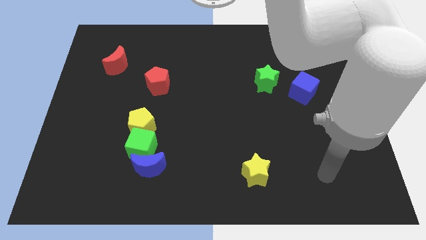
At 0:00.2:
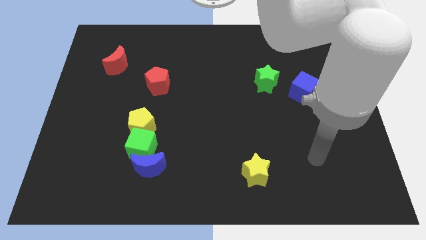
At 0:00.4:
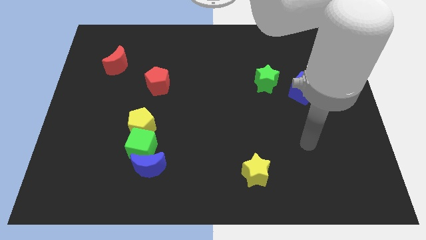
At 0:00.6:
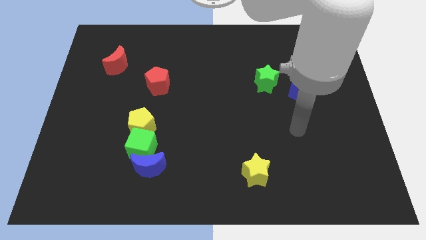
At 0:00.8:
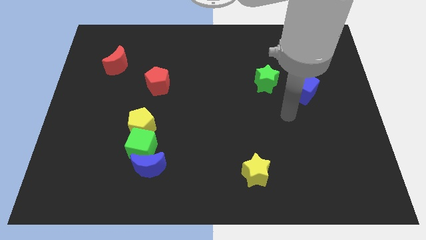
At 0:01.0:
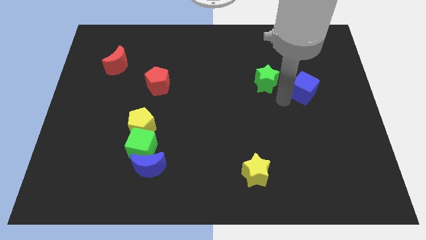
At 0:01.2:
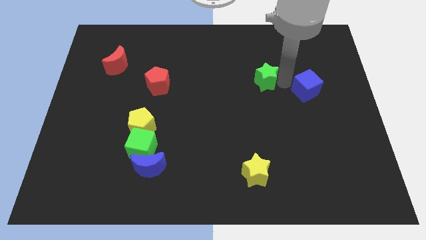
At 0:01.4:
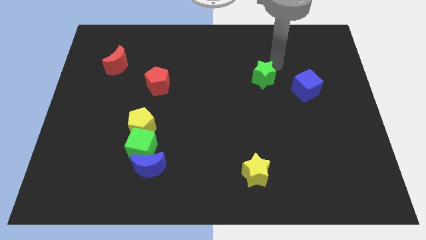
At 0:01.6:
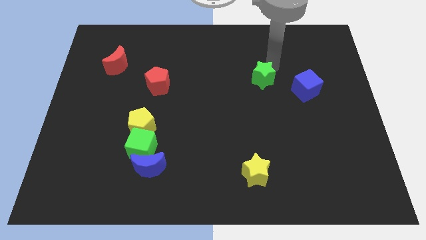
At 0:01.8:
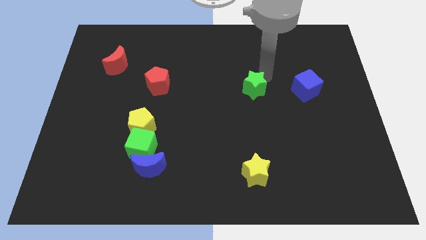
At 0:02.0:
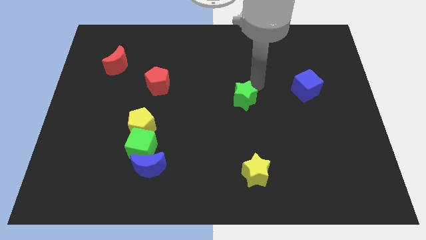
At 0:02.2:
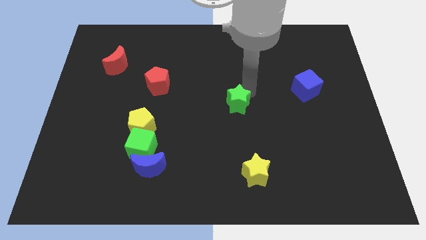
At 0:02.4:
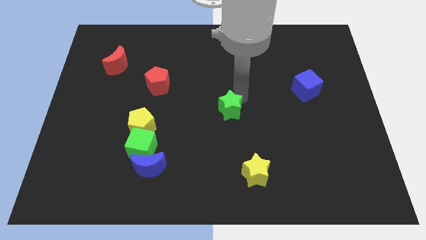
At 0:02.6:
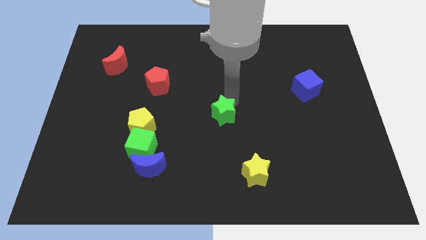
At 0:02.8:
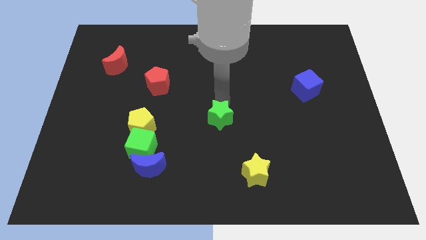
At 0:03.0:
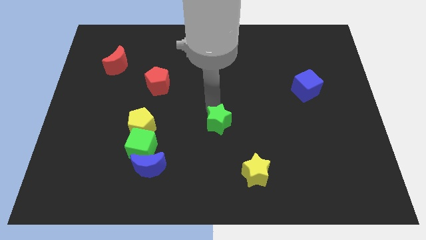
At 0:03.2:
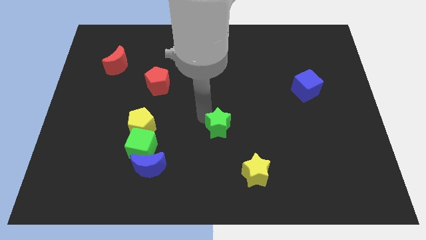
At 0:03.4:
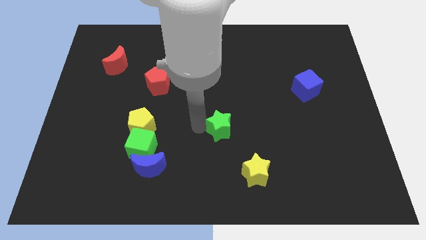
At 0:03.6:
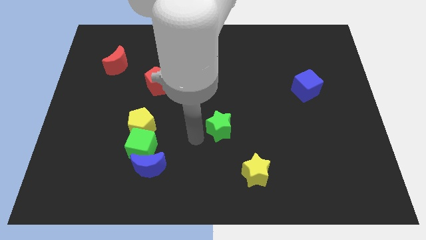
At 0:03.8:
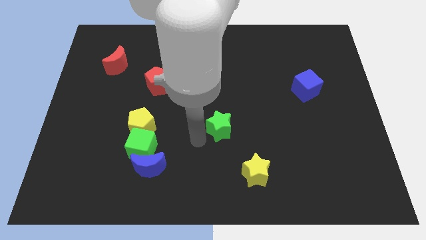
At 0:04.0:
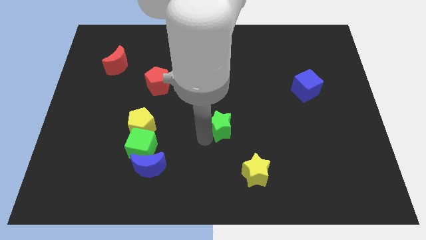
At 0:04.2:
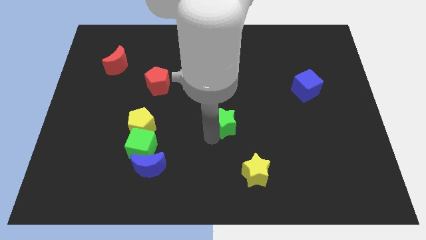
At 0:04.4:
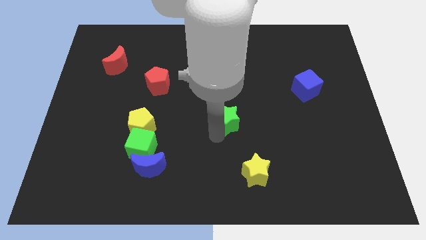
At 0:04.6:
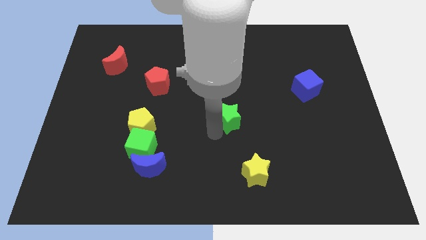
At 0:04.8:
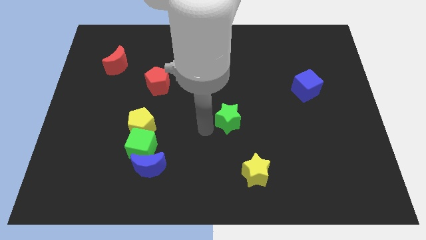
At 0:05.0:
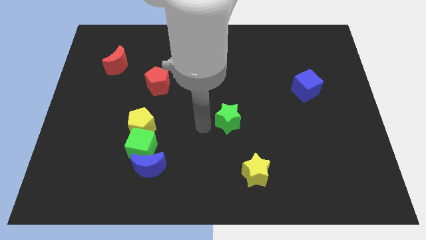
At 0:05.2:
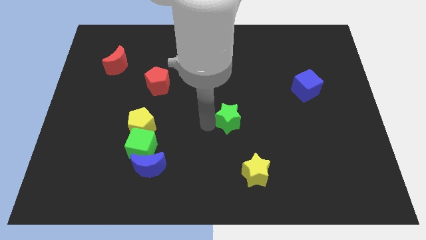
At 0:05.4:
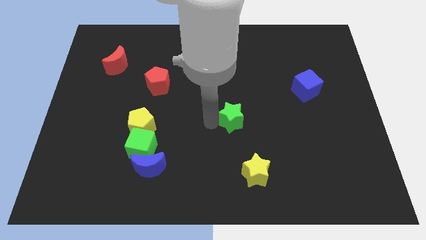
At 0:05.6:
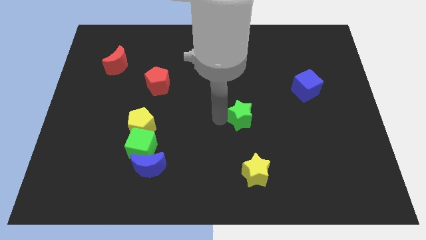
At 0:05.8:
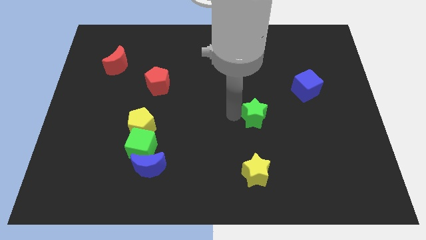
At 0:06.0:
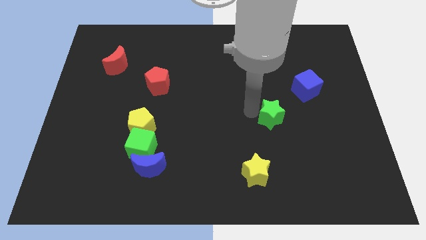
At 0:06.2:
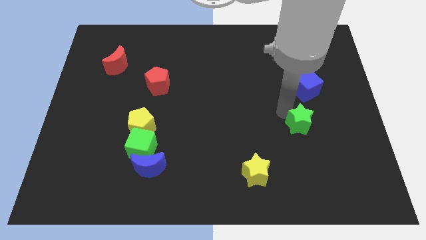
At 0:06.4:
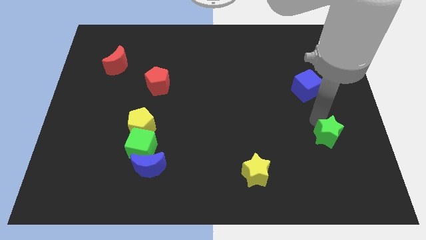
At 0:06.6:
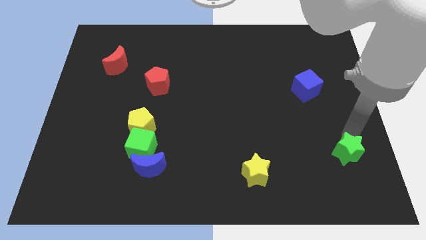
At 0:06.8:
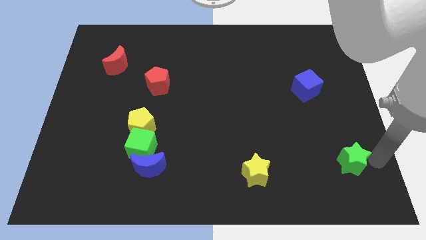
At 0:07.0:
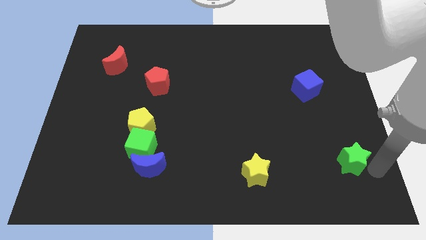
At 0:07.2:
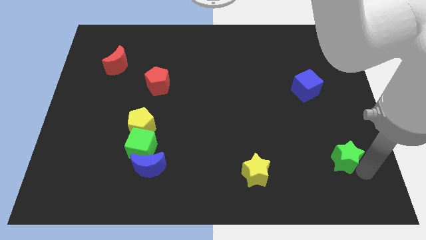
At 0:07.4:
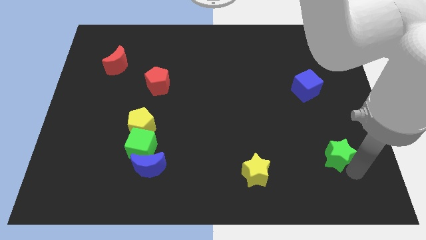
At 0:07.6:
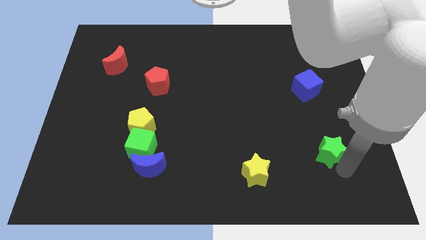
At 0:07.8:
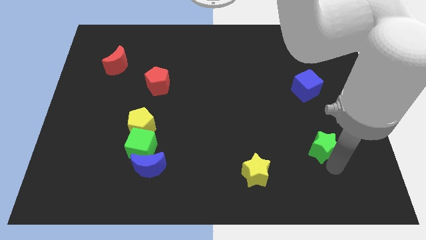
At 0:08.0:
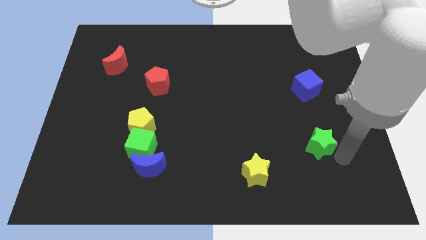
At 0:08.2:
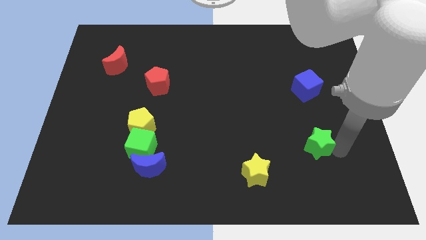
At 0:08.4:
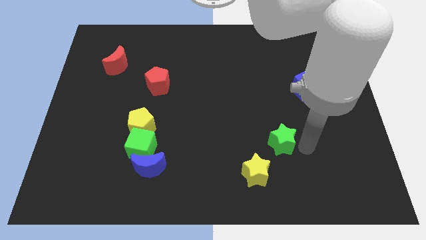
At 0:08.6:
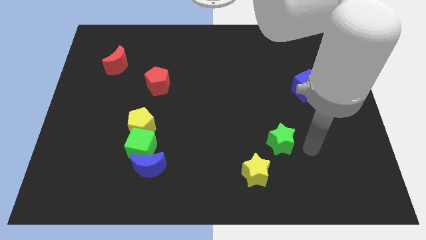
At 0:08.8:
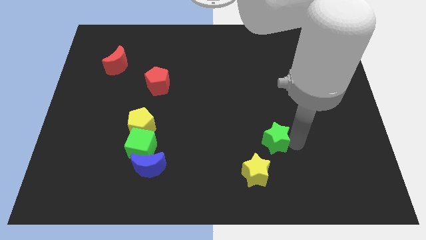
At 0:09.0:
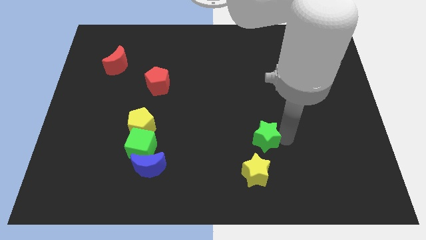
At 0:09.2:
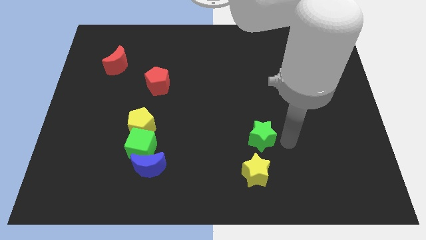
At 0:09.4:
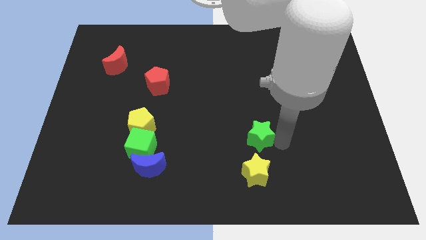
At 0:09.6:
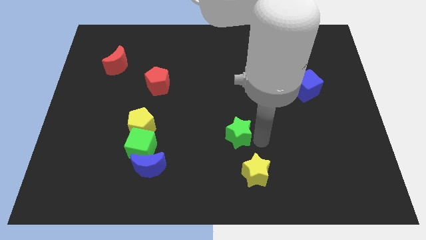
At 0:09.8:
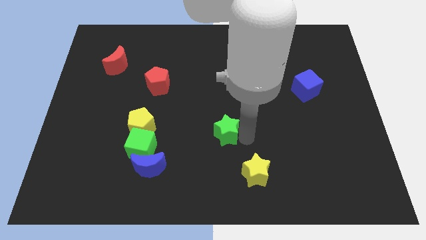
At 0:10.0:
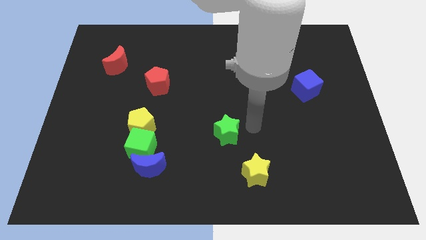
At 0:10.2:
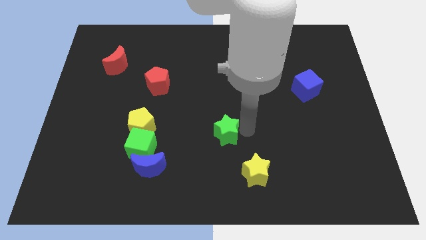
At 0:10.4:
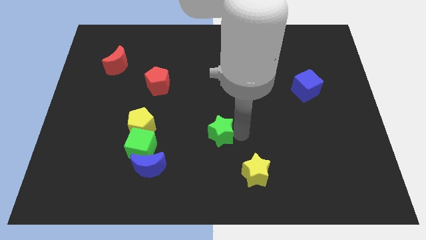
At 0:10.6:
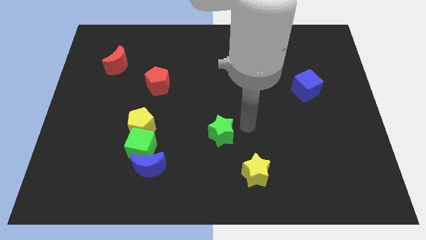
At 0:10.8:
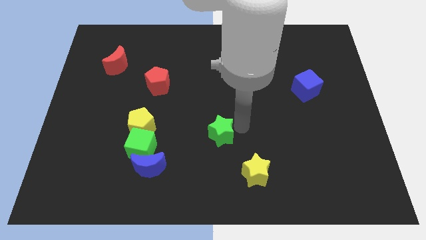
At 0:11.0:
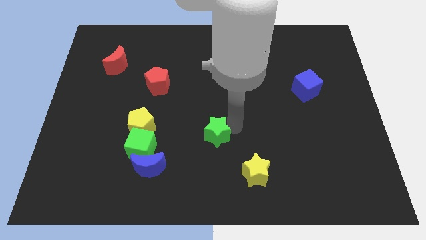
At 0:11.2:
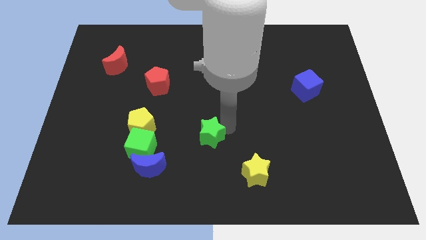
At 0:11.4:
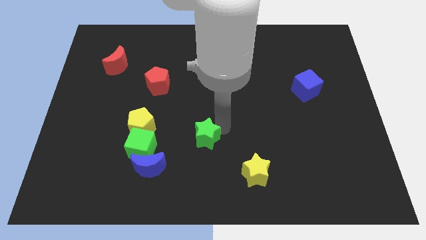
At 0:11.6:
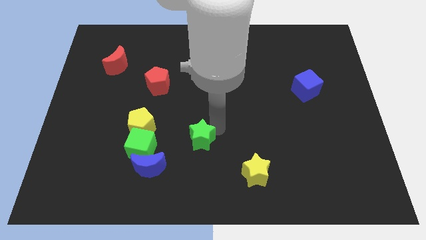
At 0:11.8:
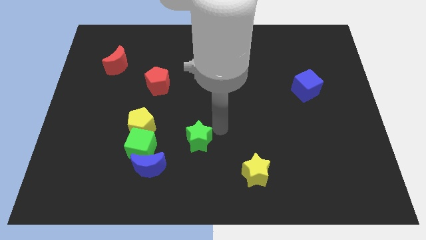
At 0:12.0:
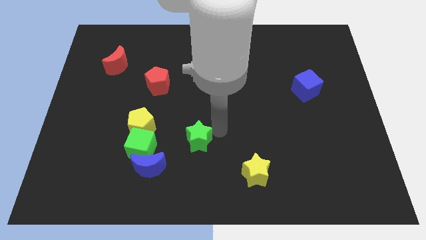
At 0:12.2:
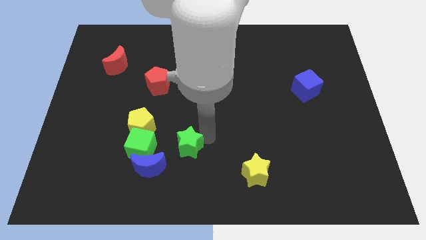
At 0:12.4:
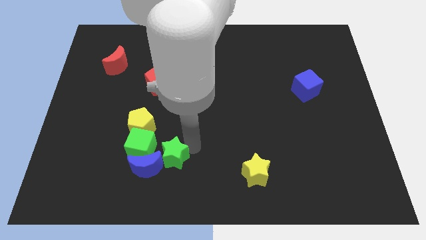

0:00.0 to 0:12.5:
slide the green star close to the blue moon

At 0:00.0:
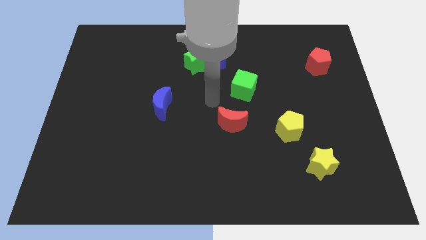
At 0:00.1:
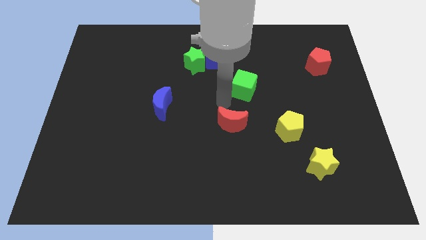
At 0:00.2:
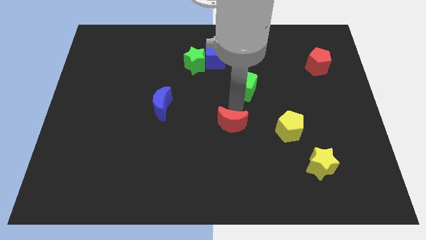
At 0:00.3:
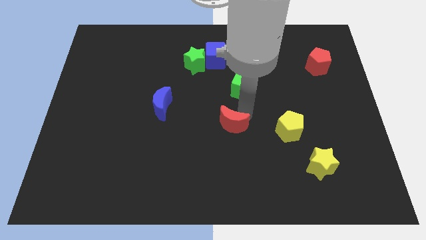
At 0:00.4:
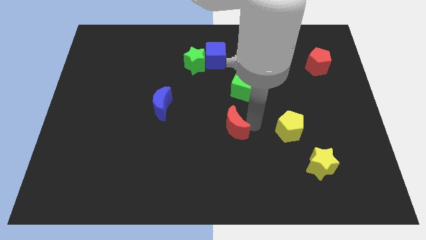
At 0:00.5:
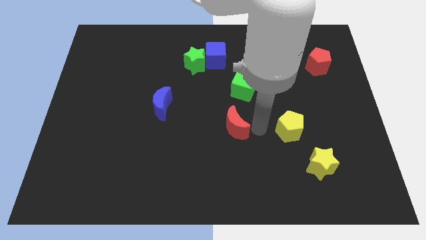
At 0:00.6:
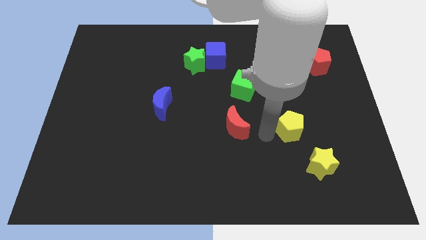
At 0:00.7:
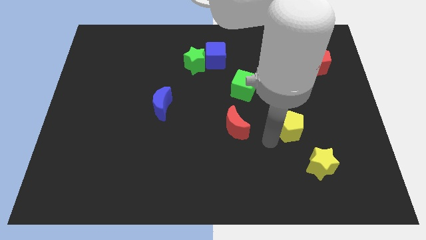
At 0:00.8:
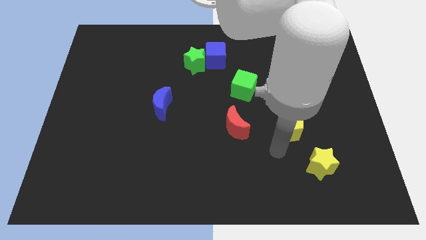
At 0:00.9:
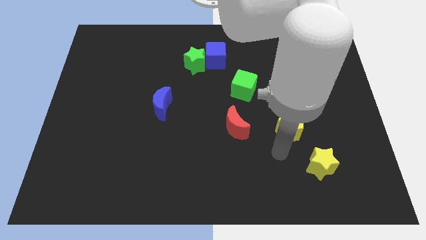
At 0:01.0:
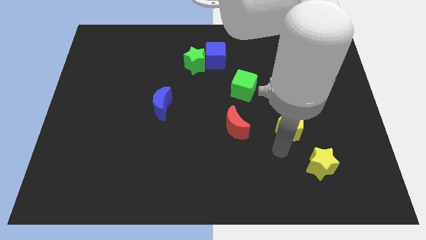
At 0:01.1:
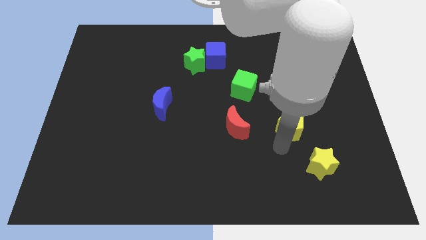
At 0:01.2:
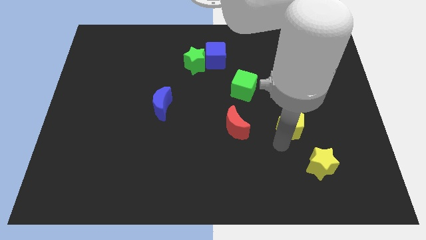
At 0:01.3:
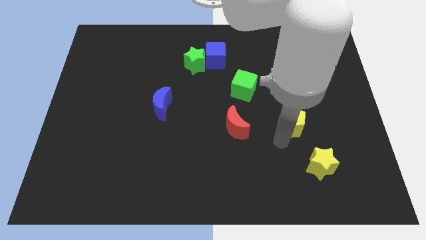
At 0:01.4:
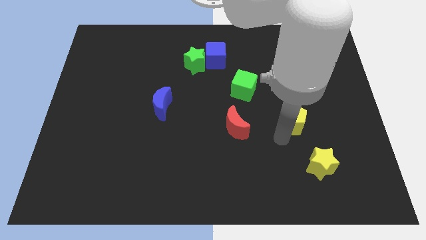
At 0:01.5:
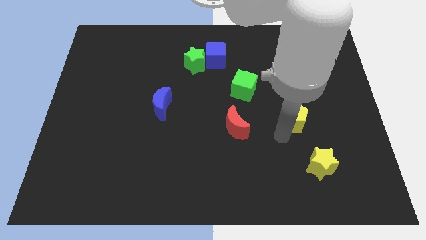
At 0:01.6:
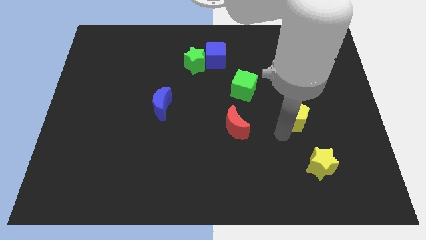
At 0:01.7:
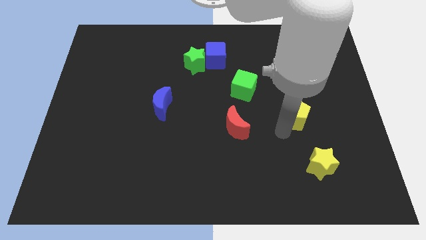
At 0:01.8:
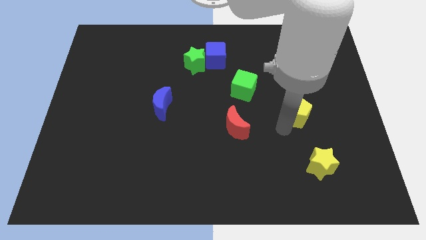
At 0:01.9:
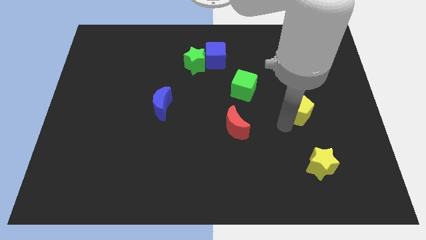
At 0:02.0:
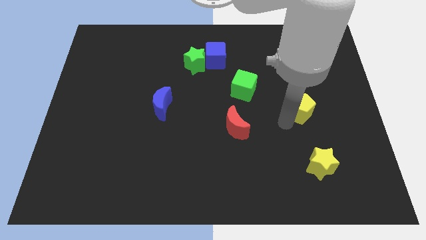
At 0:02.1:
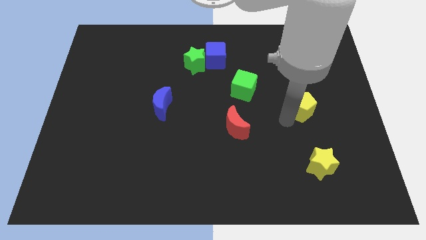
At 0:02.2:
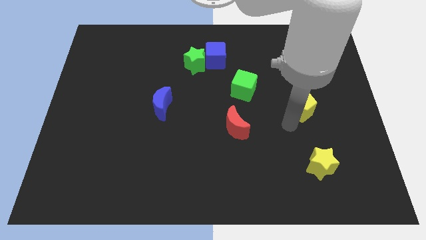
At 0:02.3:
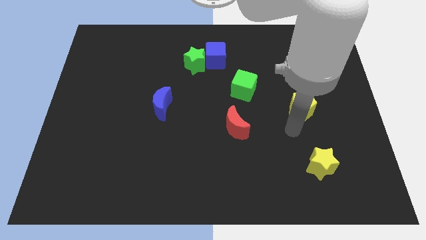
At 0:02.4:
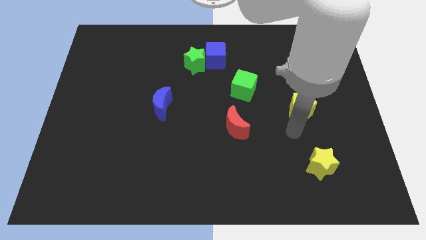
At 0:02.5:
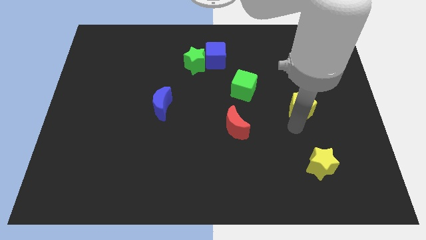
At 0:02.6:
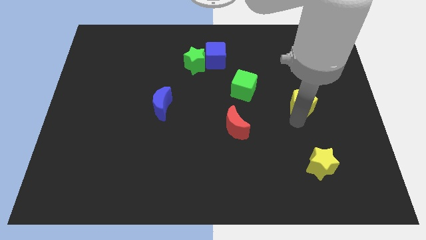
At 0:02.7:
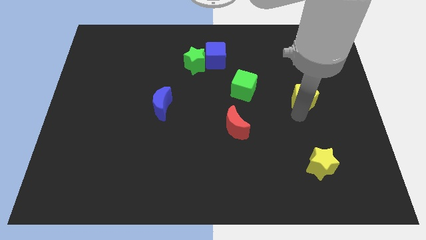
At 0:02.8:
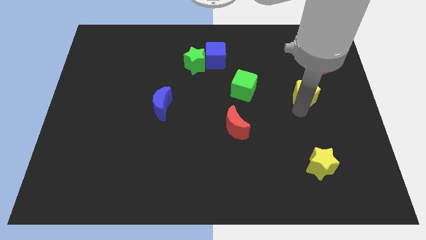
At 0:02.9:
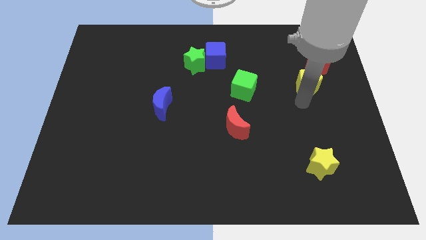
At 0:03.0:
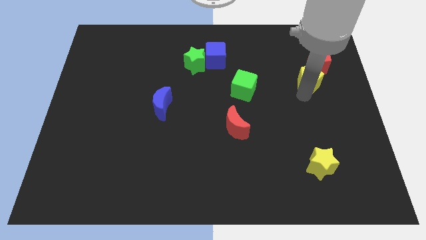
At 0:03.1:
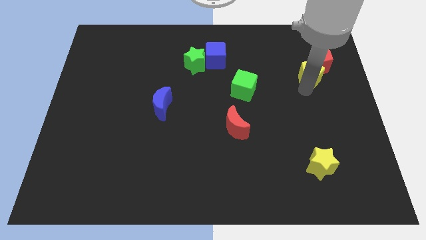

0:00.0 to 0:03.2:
move the yellow pentagon next to the red pentagon
